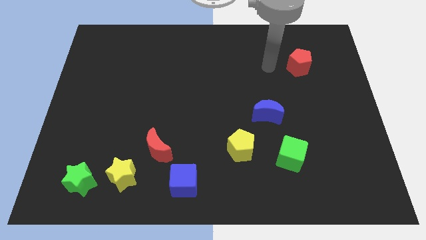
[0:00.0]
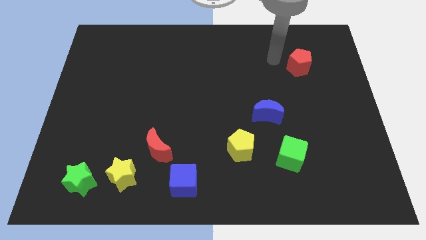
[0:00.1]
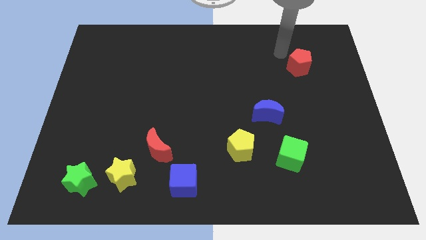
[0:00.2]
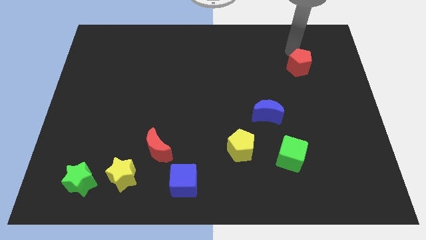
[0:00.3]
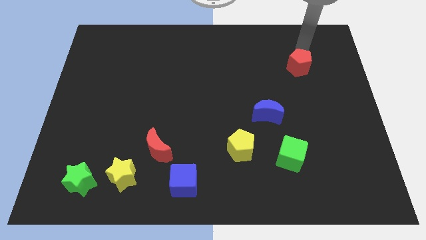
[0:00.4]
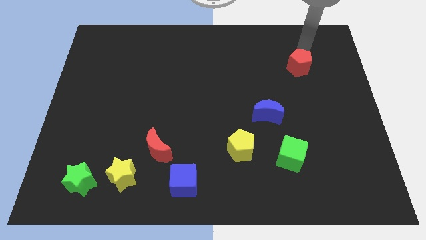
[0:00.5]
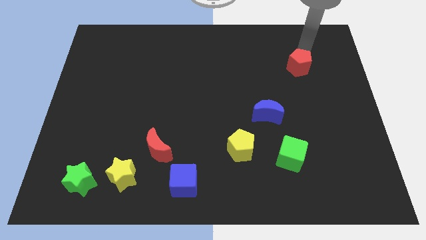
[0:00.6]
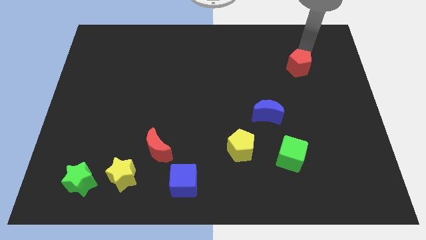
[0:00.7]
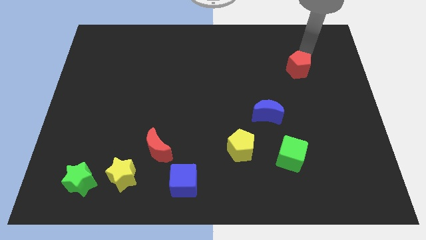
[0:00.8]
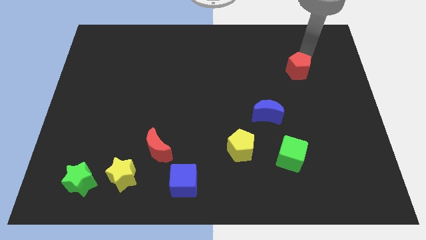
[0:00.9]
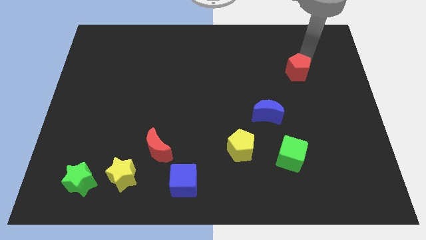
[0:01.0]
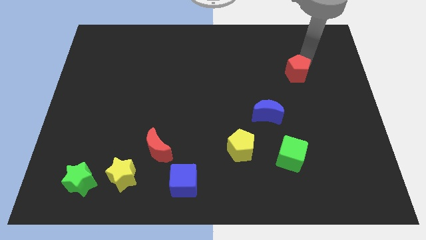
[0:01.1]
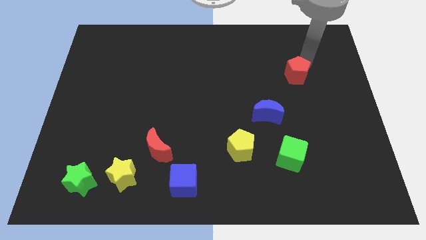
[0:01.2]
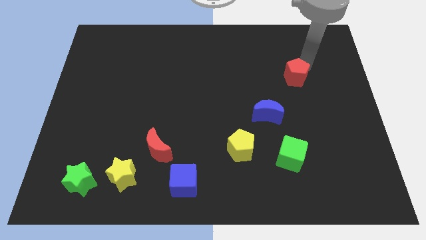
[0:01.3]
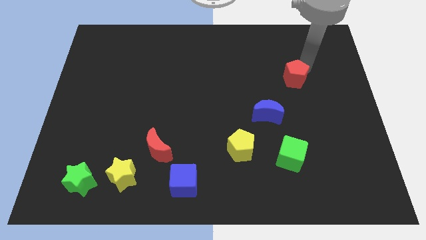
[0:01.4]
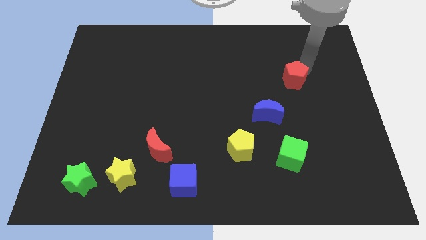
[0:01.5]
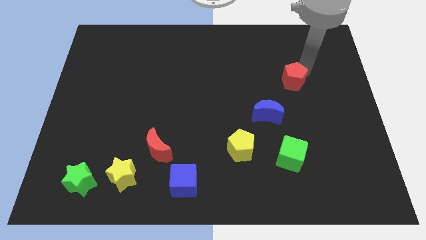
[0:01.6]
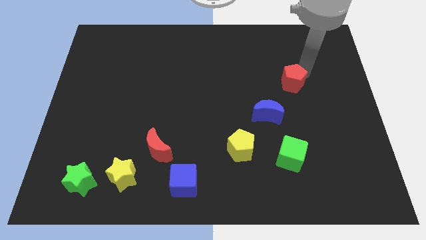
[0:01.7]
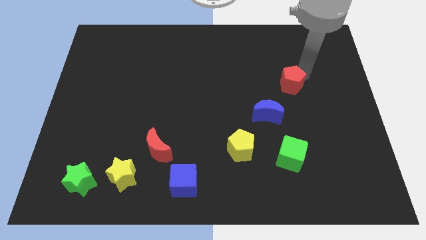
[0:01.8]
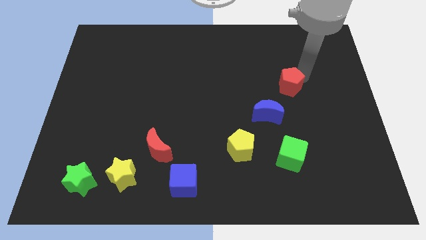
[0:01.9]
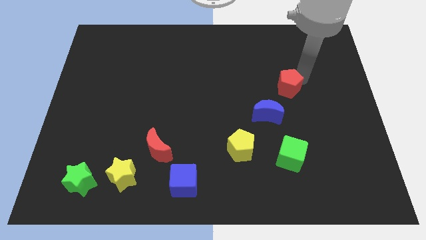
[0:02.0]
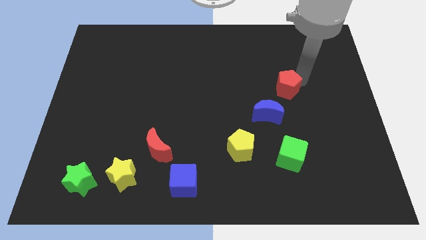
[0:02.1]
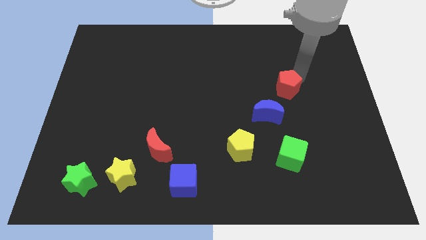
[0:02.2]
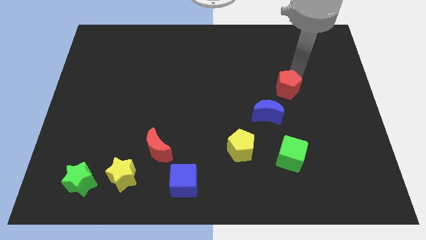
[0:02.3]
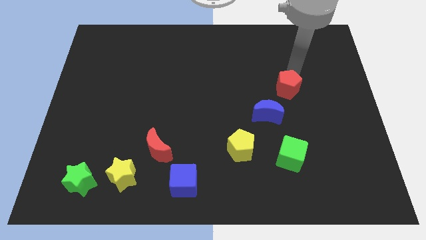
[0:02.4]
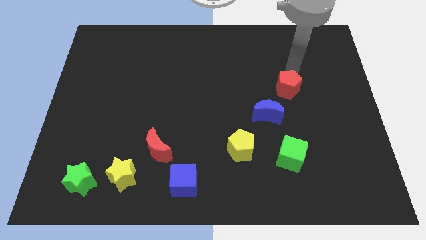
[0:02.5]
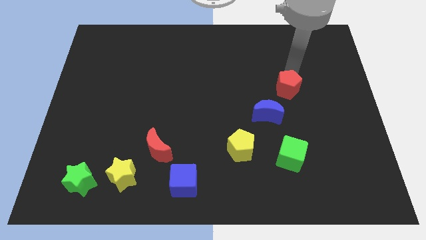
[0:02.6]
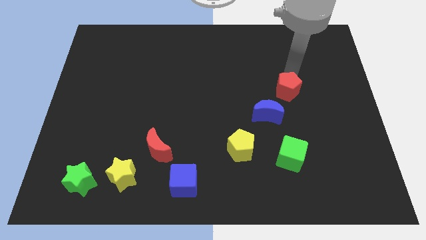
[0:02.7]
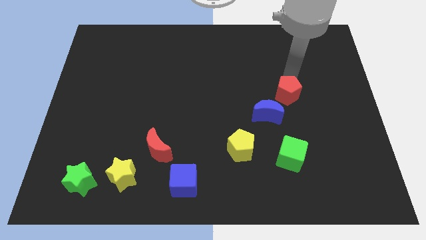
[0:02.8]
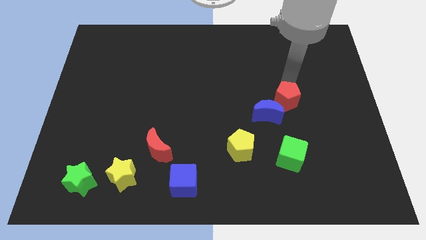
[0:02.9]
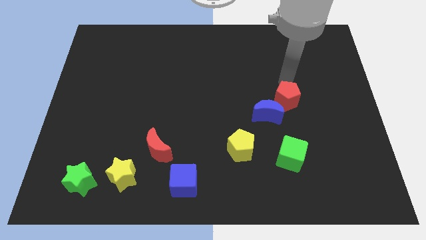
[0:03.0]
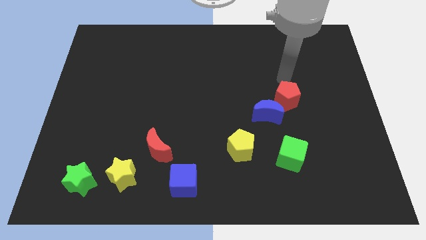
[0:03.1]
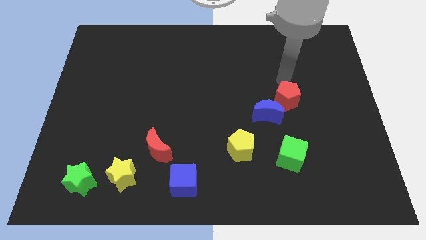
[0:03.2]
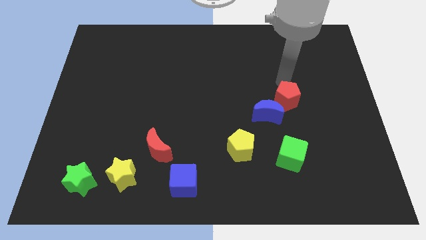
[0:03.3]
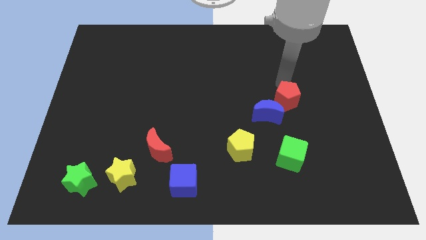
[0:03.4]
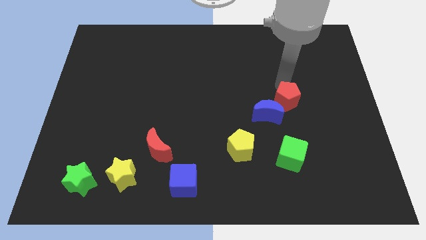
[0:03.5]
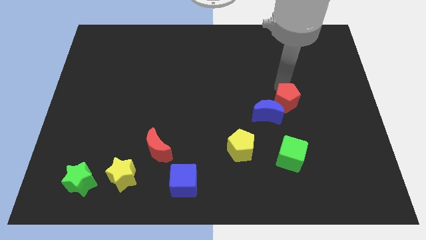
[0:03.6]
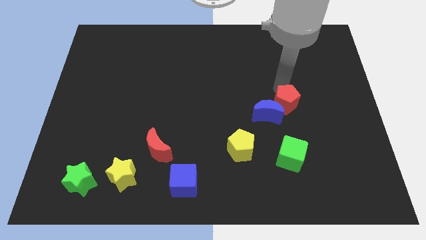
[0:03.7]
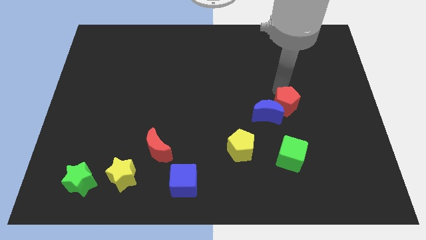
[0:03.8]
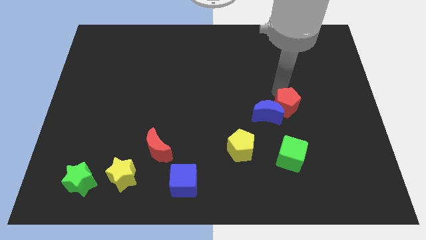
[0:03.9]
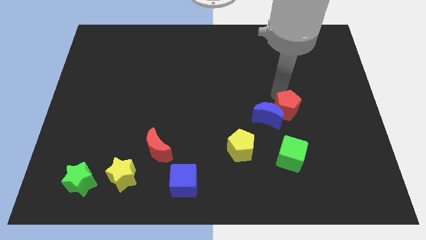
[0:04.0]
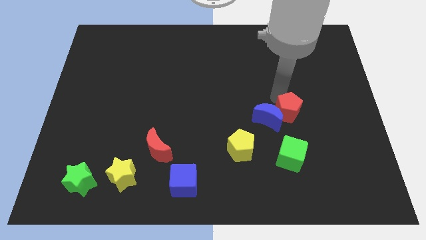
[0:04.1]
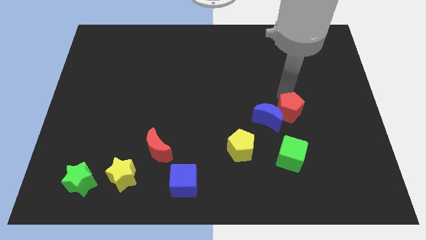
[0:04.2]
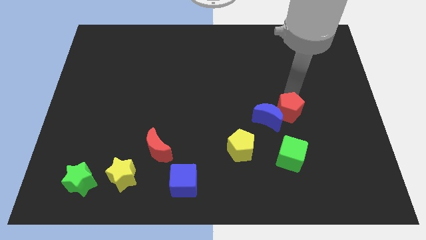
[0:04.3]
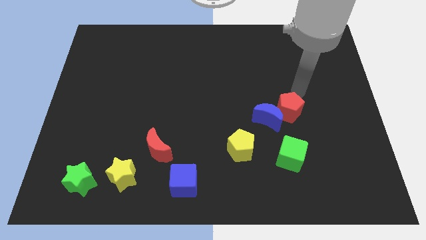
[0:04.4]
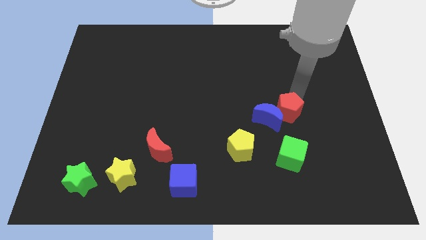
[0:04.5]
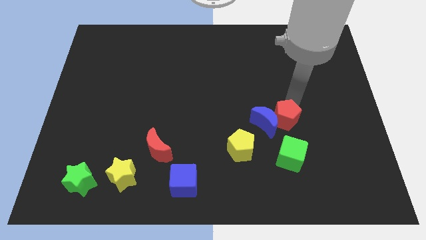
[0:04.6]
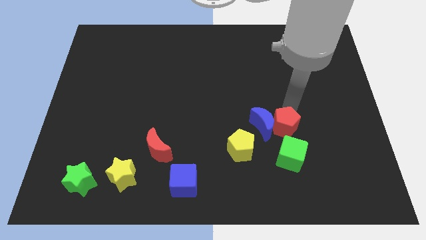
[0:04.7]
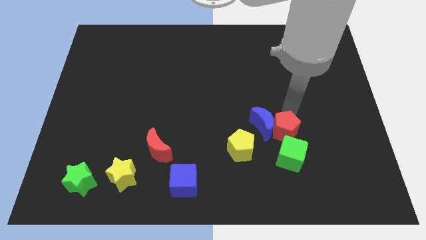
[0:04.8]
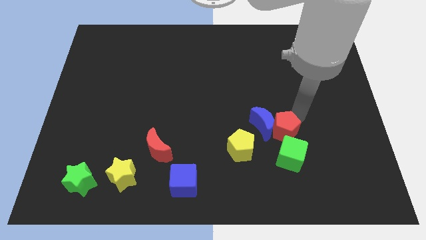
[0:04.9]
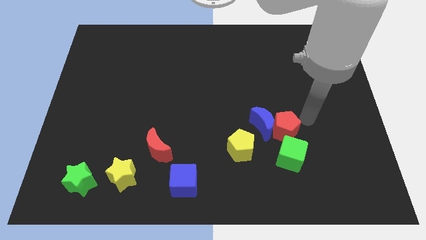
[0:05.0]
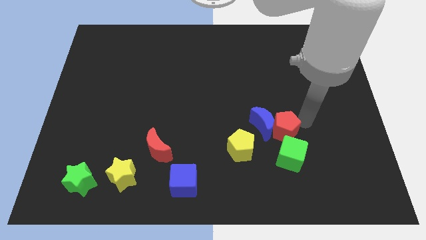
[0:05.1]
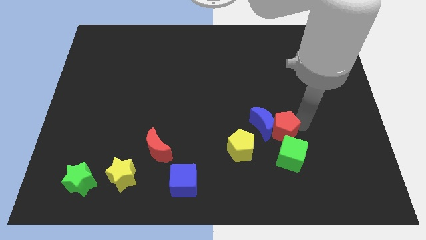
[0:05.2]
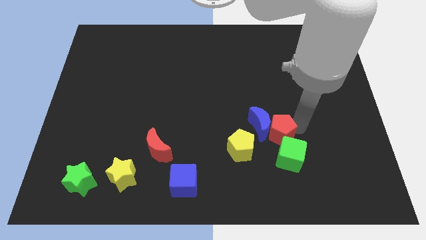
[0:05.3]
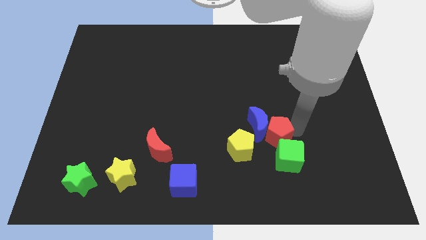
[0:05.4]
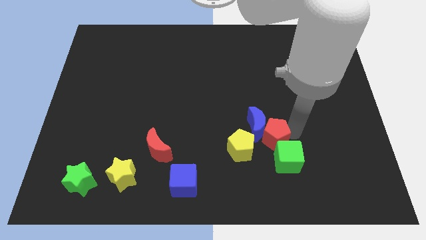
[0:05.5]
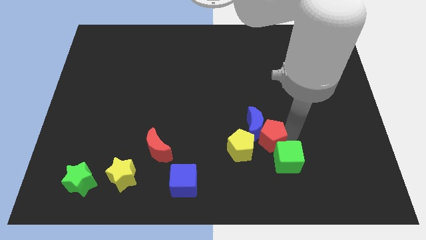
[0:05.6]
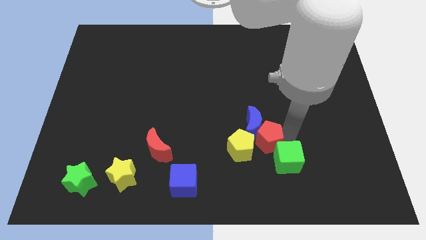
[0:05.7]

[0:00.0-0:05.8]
put the red pentagon next to the yellow pentagon

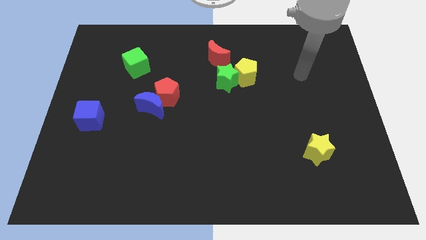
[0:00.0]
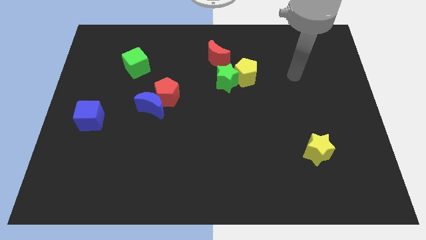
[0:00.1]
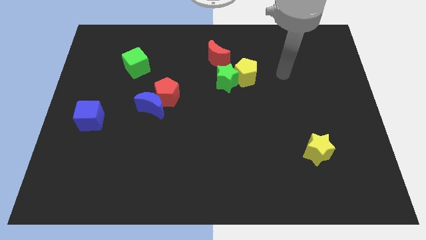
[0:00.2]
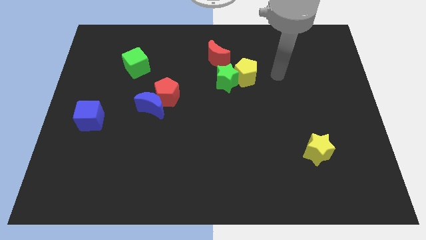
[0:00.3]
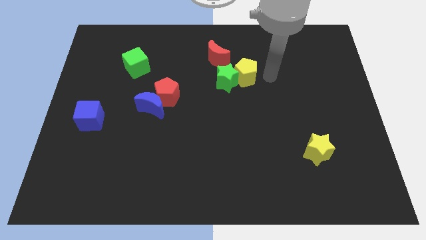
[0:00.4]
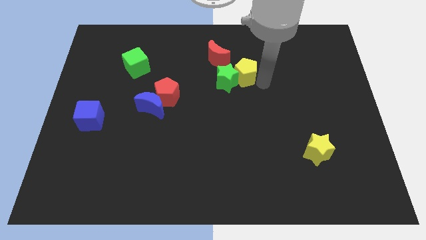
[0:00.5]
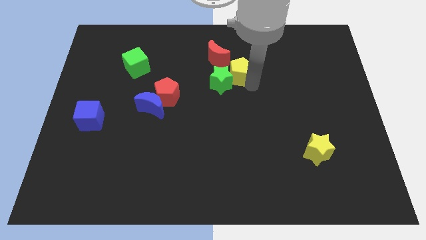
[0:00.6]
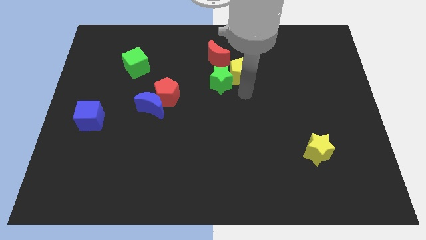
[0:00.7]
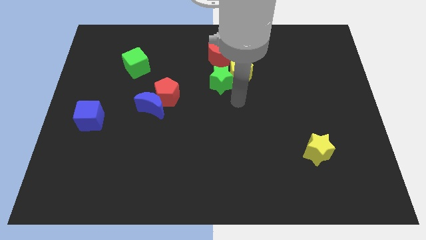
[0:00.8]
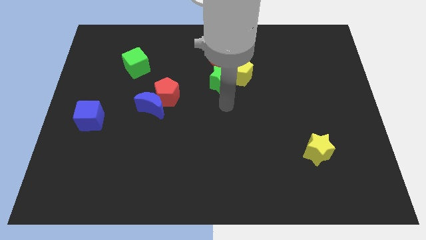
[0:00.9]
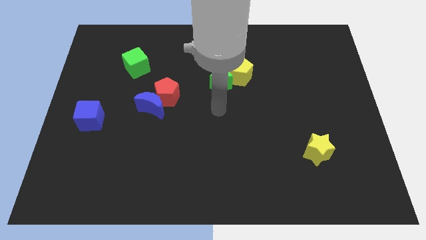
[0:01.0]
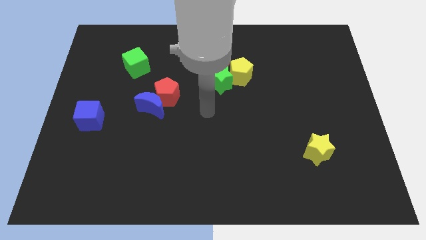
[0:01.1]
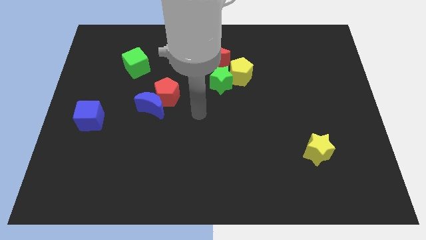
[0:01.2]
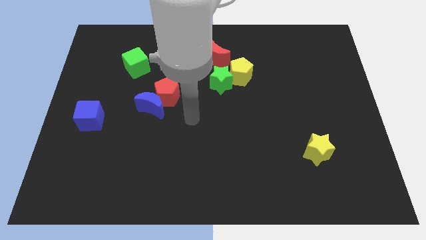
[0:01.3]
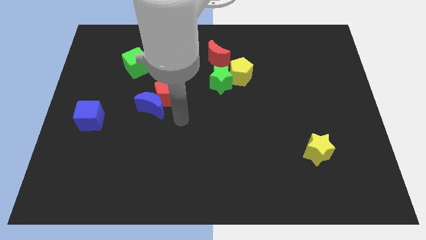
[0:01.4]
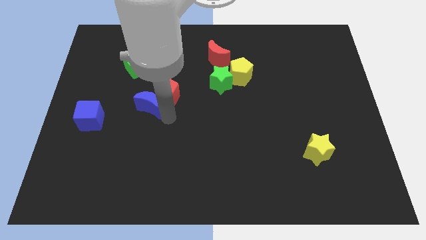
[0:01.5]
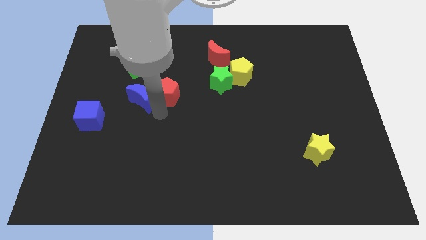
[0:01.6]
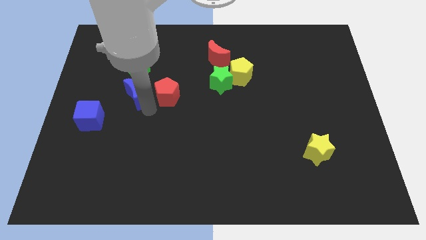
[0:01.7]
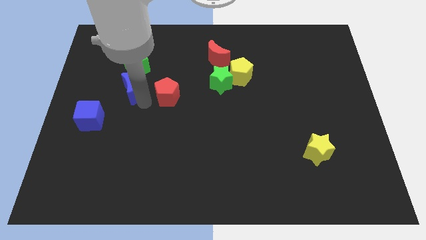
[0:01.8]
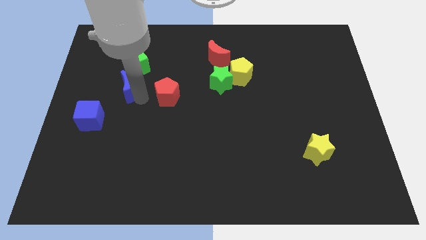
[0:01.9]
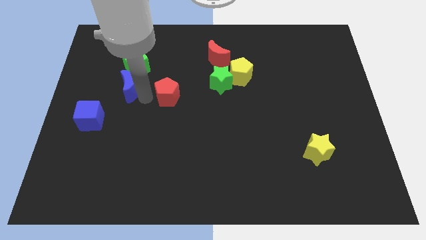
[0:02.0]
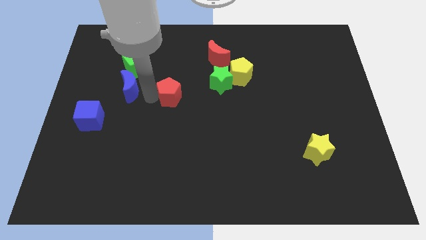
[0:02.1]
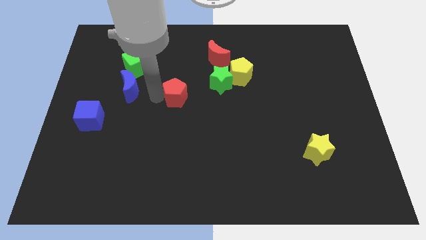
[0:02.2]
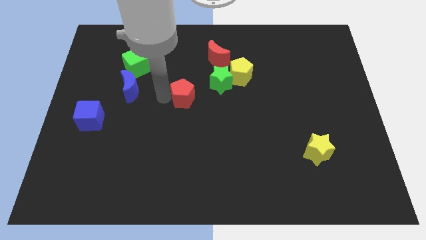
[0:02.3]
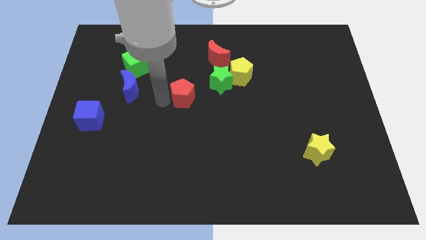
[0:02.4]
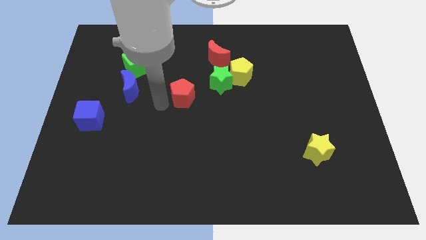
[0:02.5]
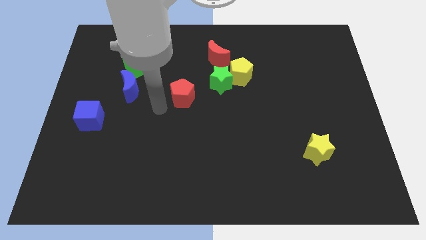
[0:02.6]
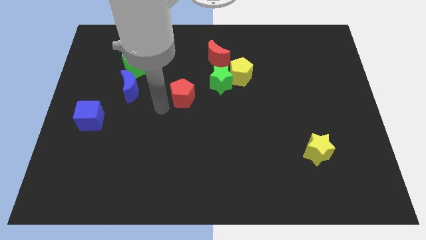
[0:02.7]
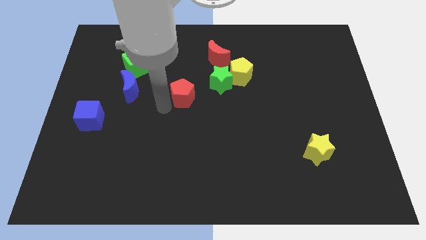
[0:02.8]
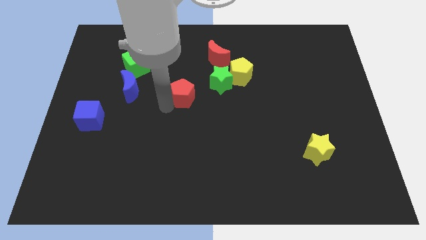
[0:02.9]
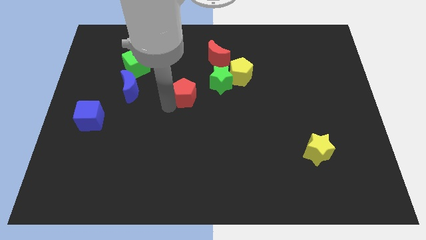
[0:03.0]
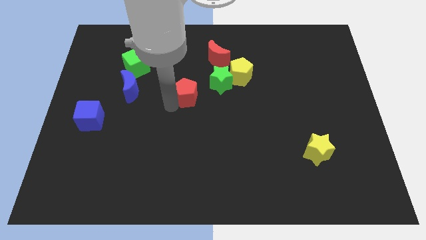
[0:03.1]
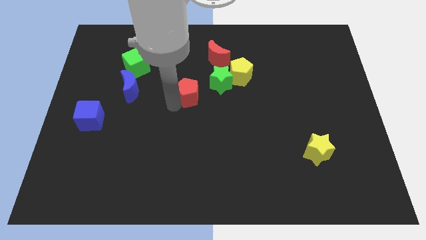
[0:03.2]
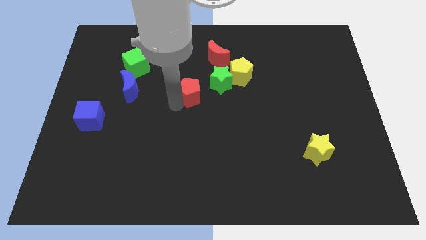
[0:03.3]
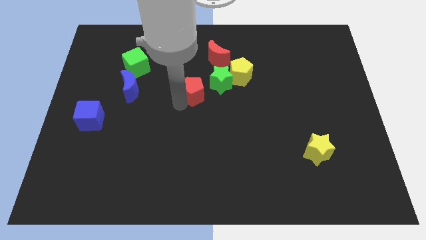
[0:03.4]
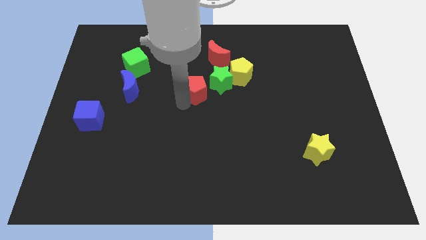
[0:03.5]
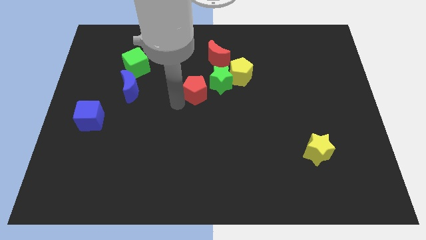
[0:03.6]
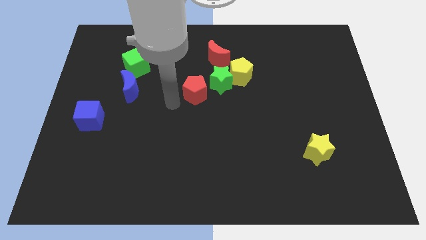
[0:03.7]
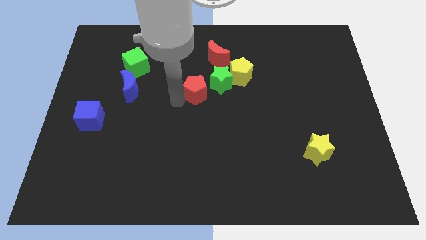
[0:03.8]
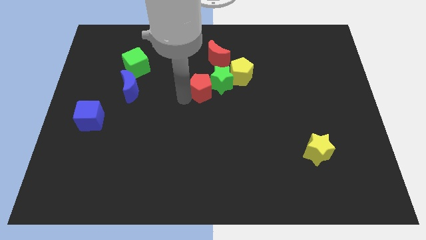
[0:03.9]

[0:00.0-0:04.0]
put the red pentagon next to the green star
